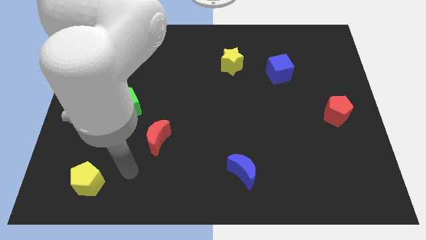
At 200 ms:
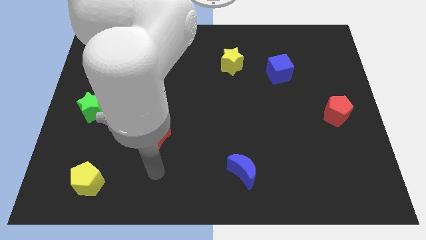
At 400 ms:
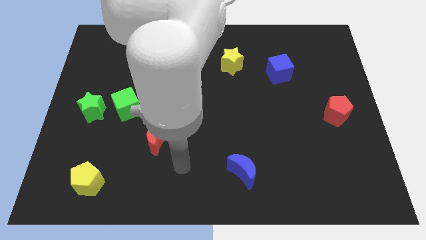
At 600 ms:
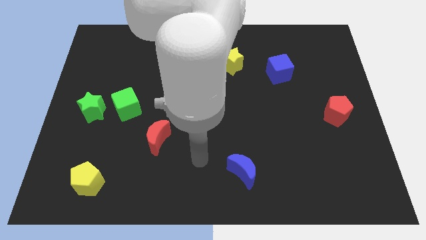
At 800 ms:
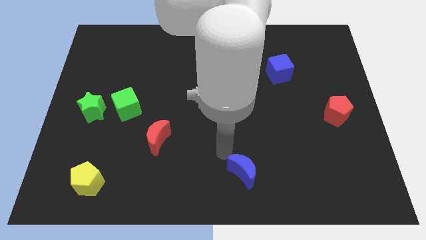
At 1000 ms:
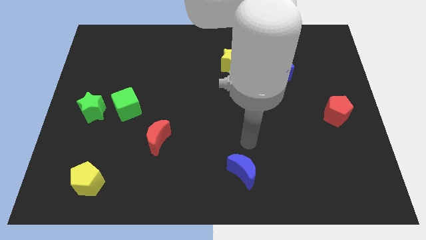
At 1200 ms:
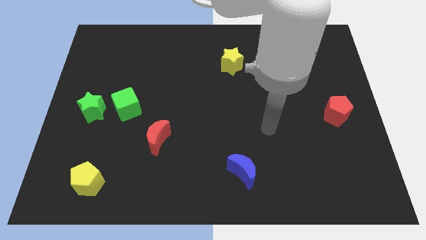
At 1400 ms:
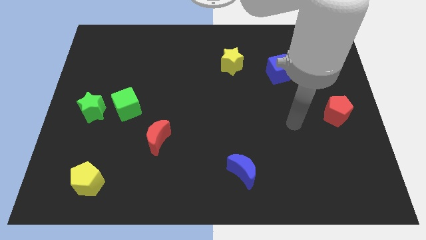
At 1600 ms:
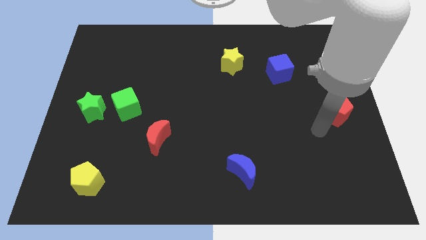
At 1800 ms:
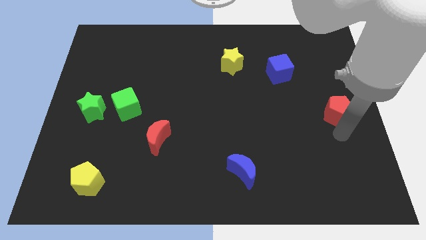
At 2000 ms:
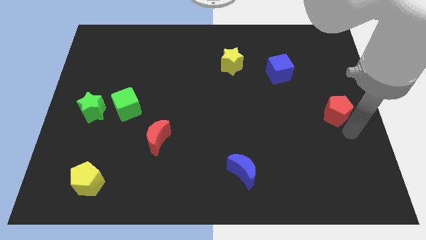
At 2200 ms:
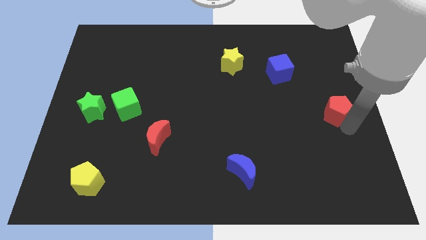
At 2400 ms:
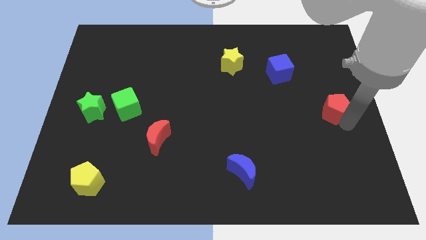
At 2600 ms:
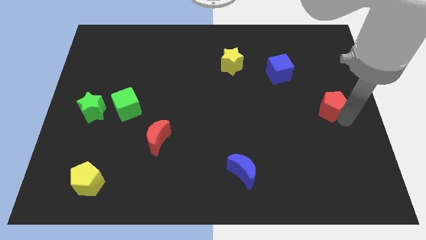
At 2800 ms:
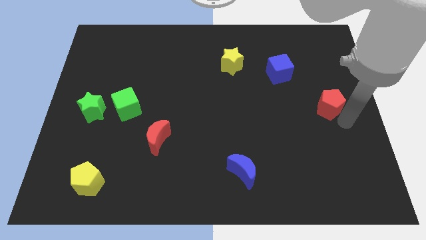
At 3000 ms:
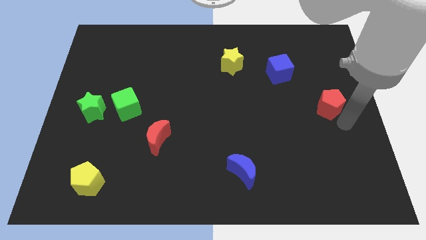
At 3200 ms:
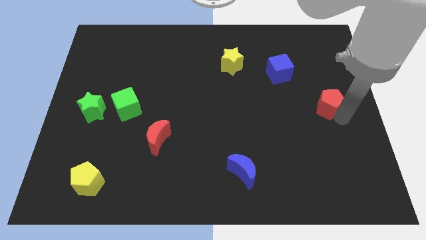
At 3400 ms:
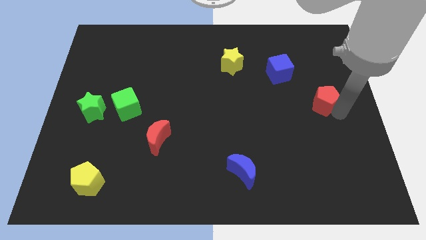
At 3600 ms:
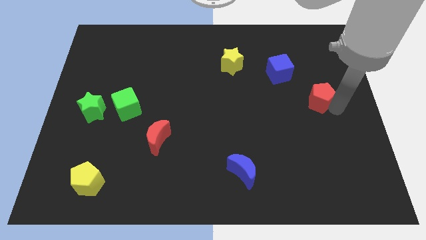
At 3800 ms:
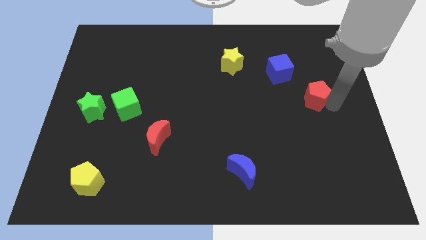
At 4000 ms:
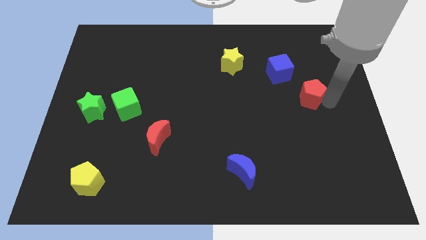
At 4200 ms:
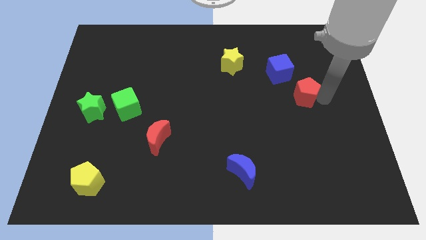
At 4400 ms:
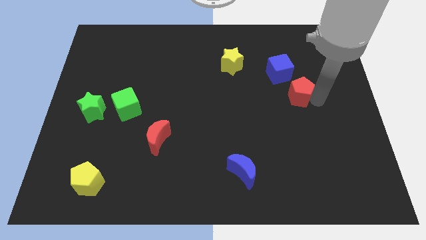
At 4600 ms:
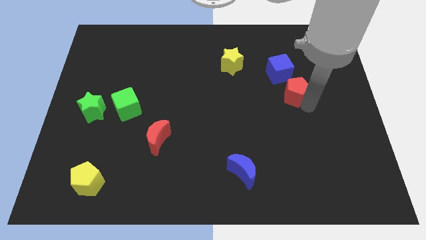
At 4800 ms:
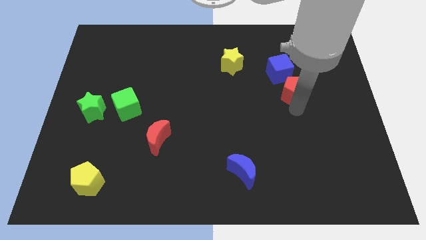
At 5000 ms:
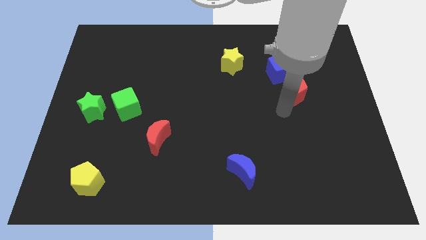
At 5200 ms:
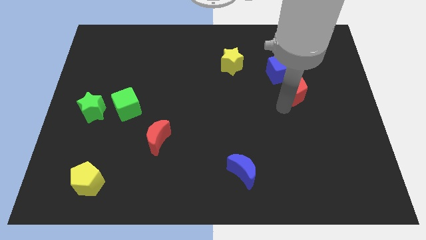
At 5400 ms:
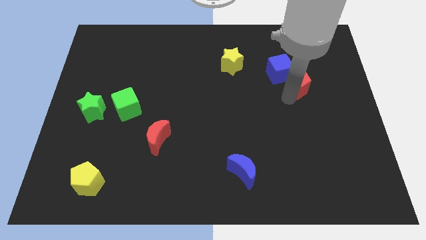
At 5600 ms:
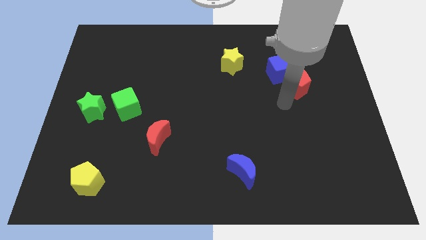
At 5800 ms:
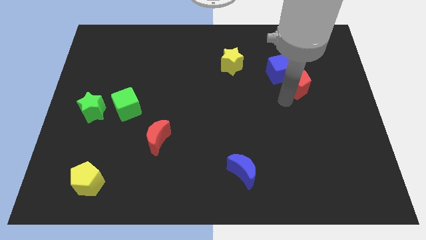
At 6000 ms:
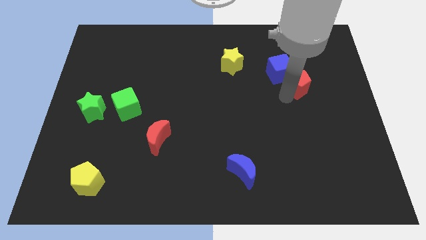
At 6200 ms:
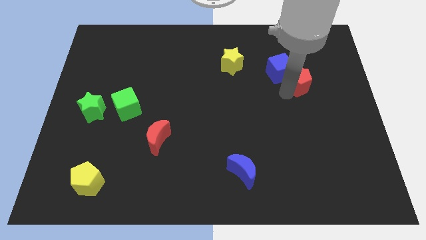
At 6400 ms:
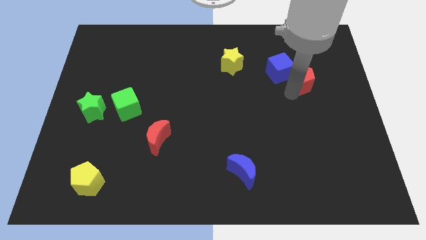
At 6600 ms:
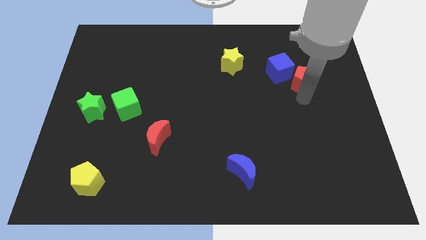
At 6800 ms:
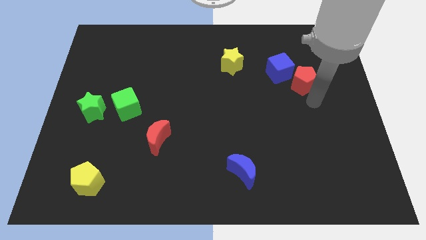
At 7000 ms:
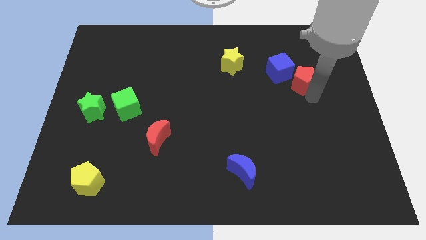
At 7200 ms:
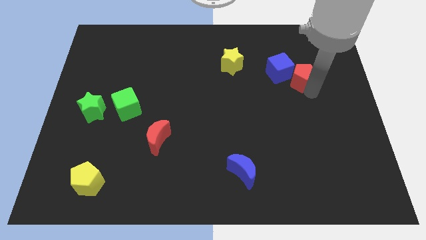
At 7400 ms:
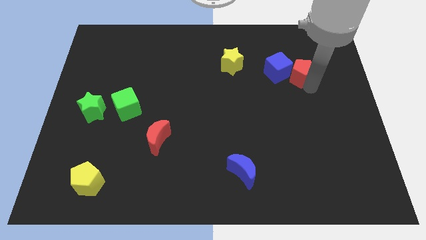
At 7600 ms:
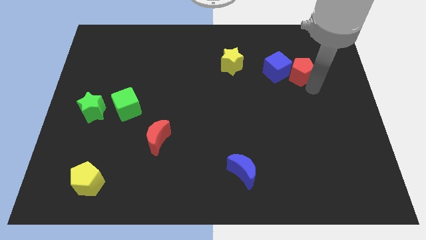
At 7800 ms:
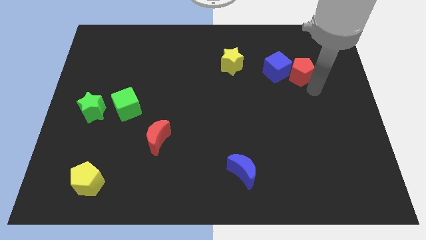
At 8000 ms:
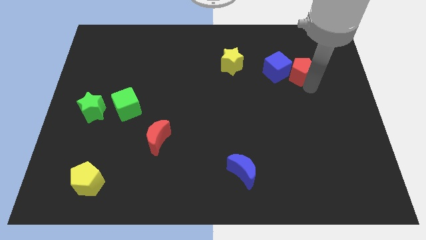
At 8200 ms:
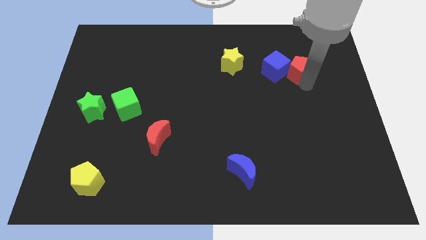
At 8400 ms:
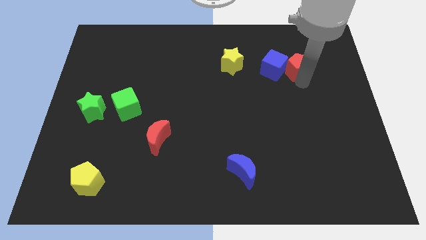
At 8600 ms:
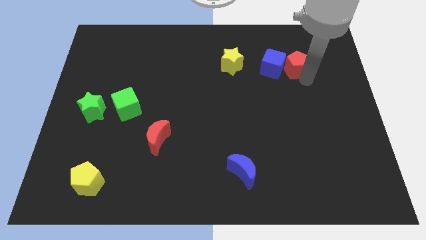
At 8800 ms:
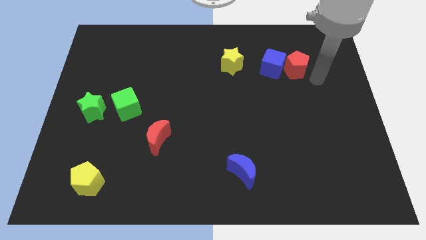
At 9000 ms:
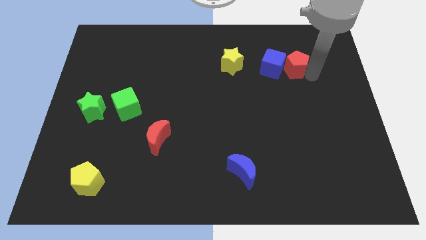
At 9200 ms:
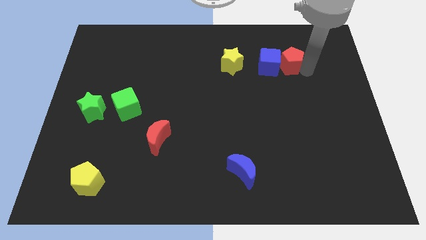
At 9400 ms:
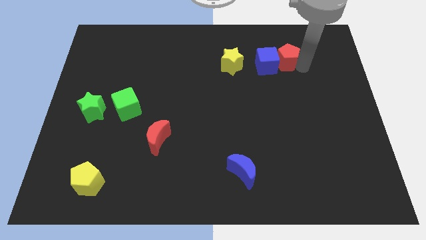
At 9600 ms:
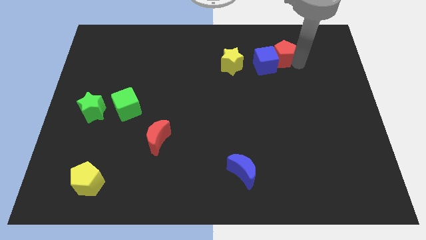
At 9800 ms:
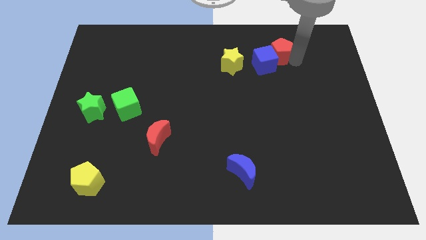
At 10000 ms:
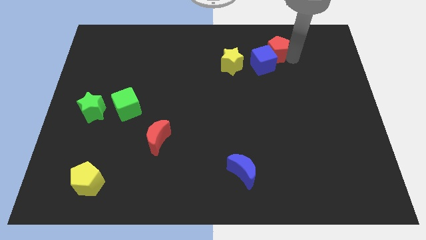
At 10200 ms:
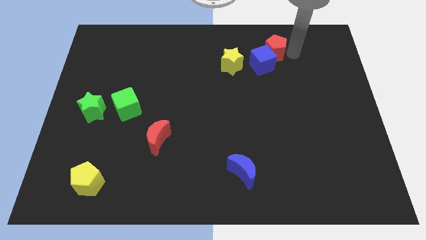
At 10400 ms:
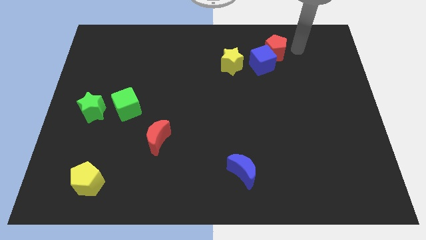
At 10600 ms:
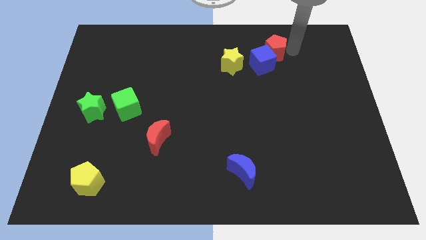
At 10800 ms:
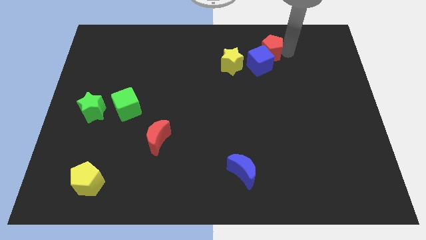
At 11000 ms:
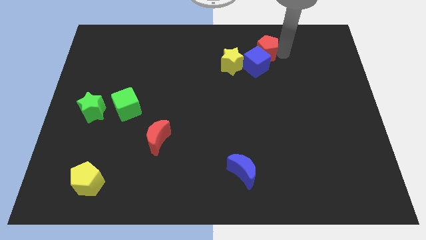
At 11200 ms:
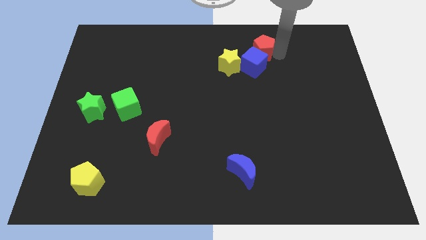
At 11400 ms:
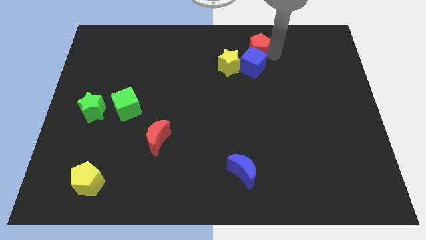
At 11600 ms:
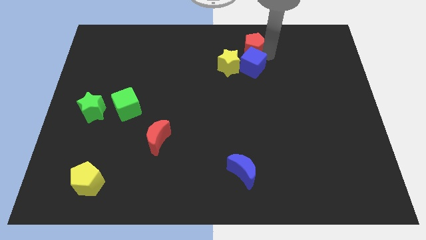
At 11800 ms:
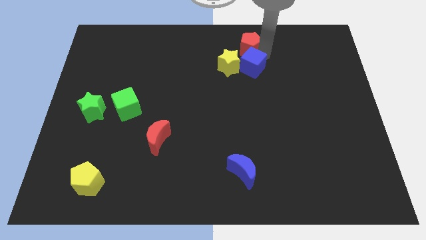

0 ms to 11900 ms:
move the red pentagon to the towards your base
